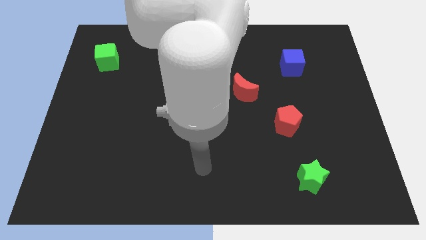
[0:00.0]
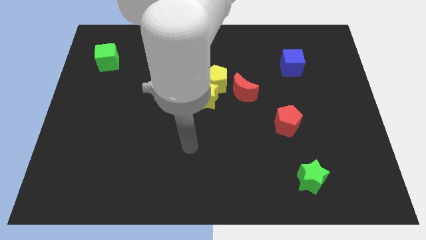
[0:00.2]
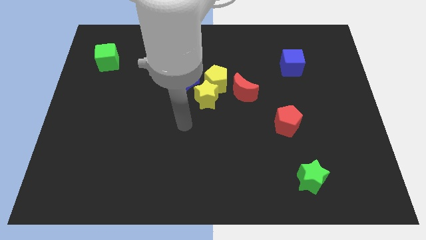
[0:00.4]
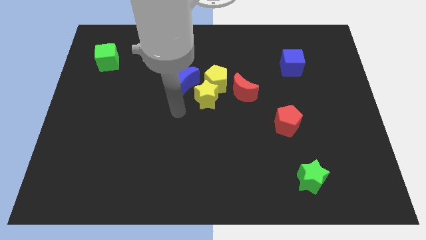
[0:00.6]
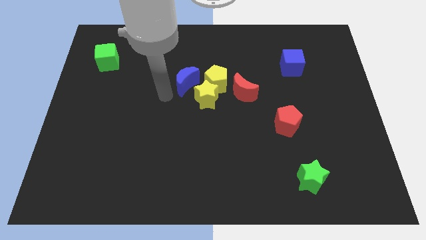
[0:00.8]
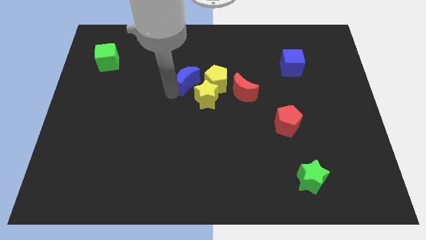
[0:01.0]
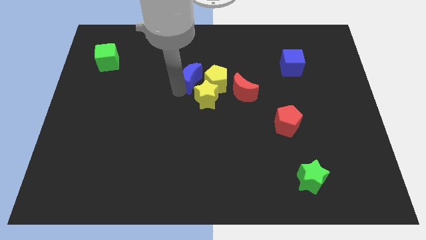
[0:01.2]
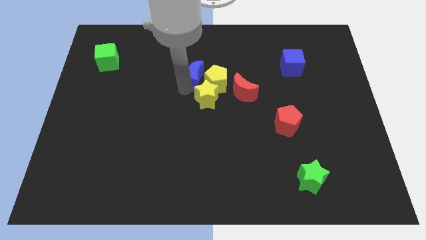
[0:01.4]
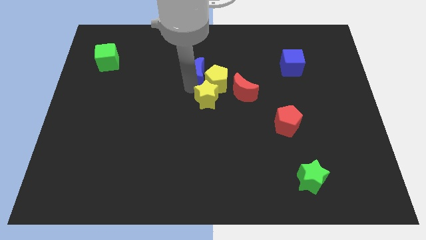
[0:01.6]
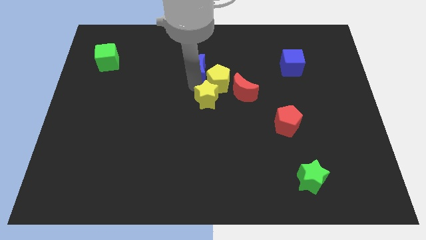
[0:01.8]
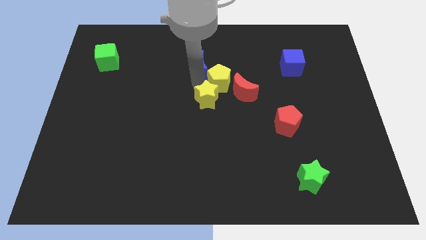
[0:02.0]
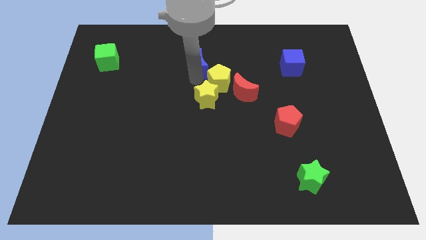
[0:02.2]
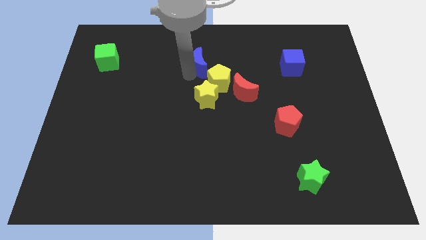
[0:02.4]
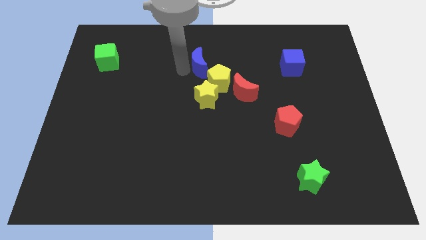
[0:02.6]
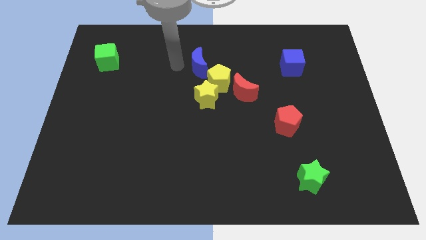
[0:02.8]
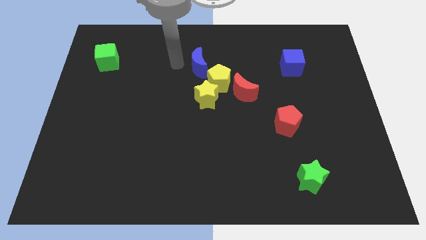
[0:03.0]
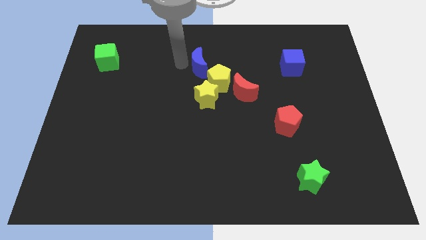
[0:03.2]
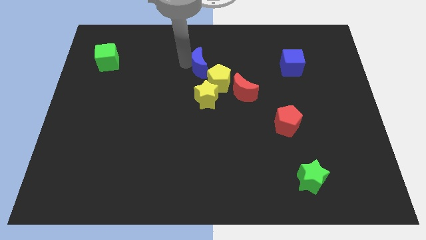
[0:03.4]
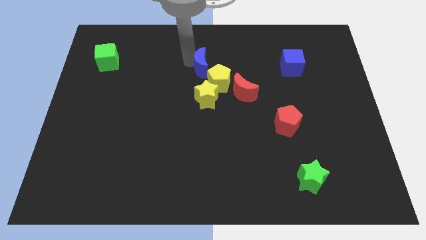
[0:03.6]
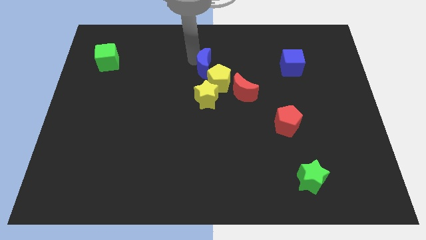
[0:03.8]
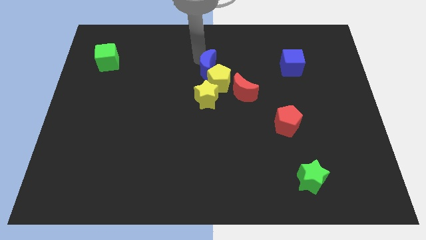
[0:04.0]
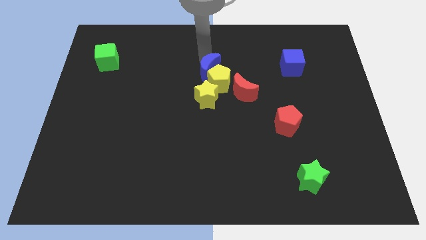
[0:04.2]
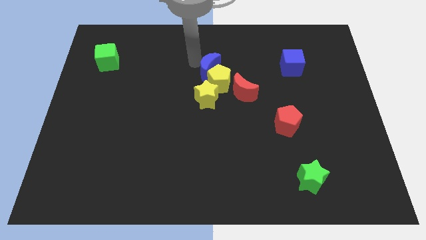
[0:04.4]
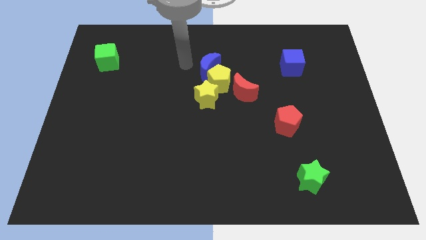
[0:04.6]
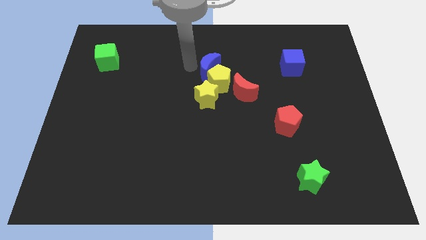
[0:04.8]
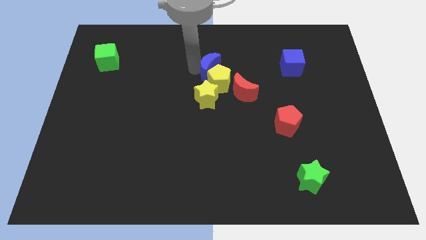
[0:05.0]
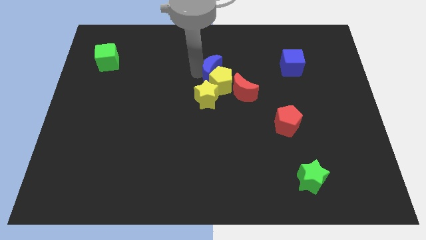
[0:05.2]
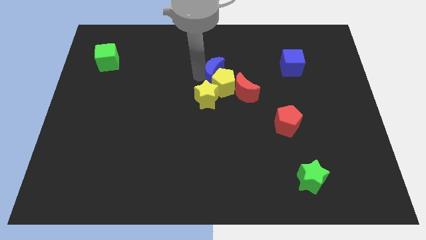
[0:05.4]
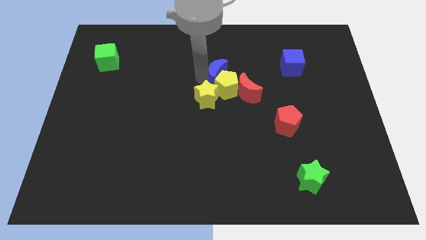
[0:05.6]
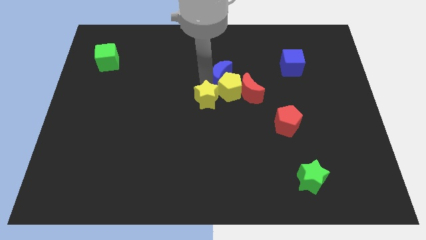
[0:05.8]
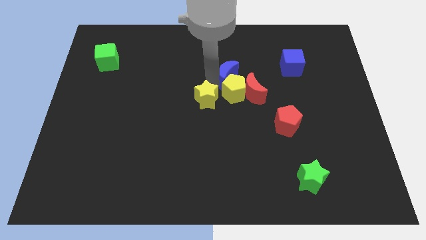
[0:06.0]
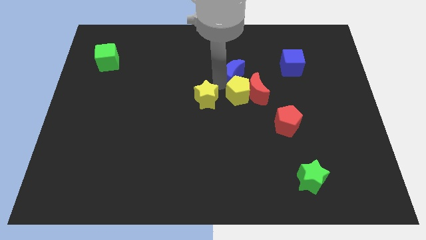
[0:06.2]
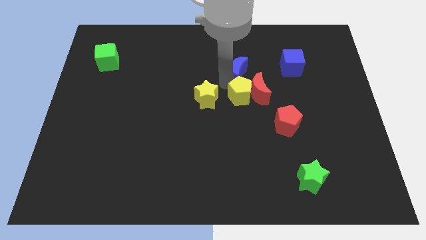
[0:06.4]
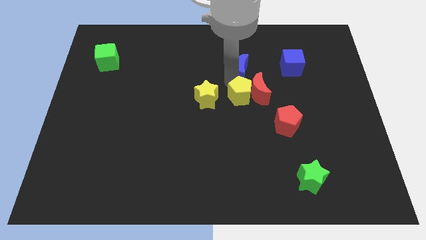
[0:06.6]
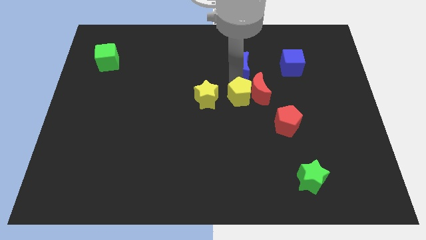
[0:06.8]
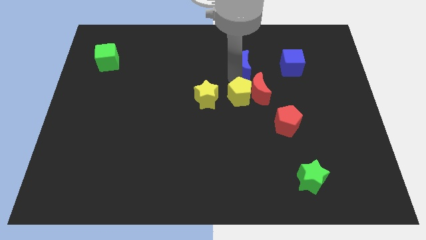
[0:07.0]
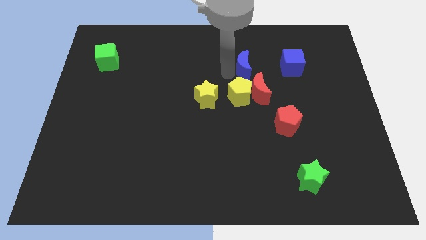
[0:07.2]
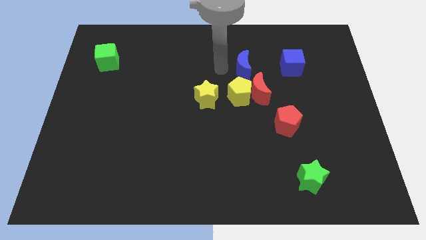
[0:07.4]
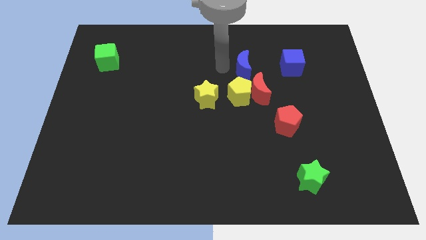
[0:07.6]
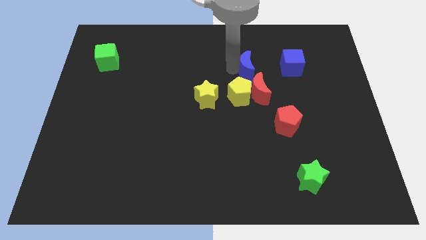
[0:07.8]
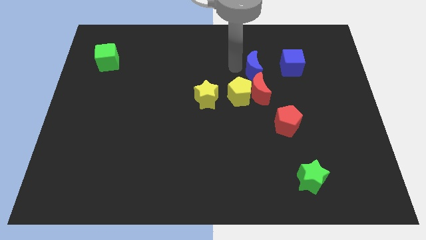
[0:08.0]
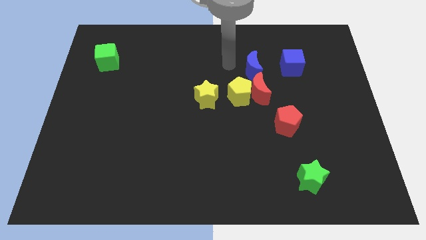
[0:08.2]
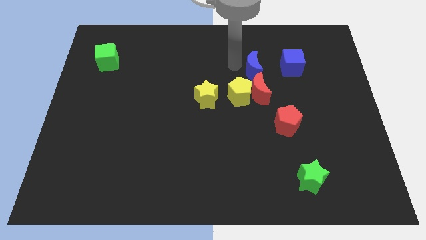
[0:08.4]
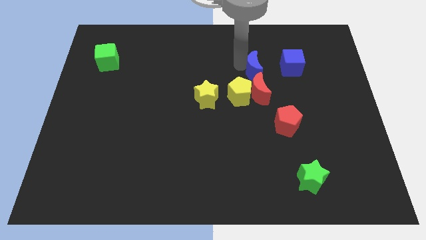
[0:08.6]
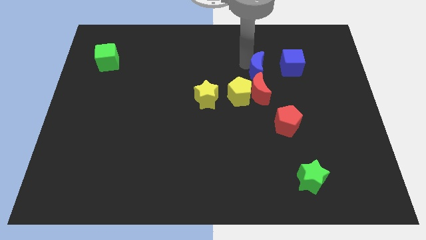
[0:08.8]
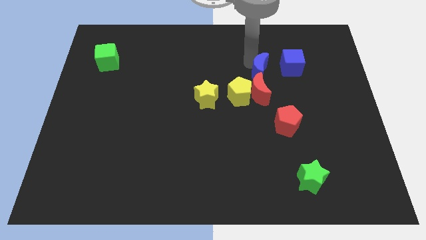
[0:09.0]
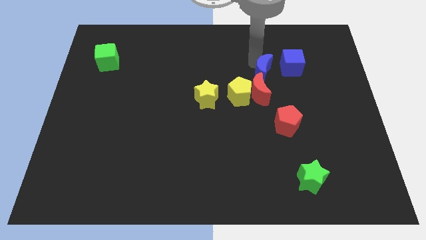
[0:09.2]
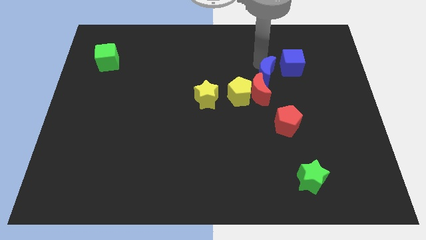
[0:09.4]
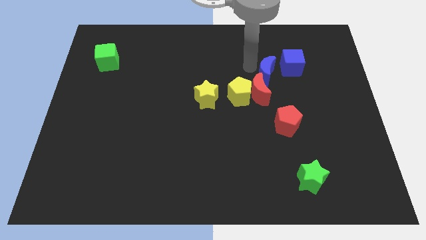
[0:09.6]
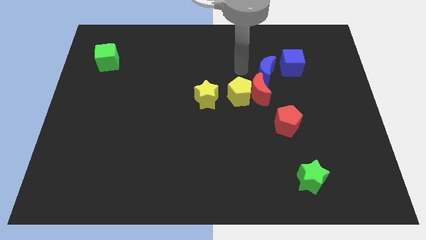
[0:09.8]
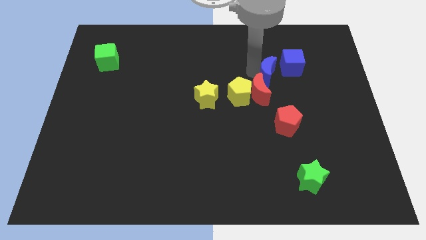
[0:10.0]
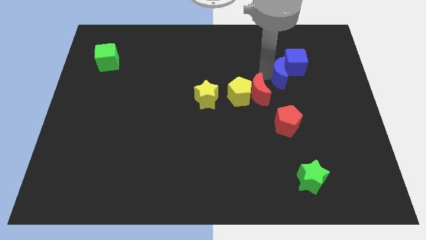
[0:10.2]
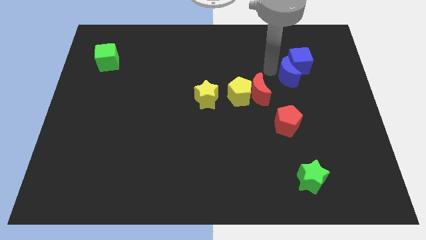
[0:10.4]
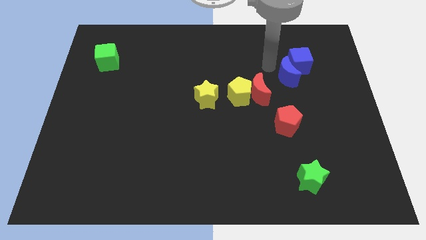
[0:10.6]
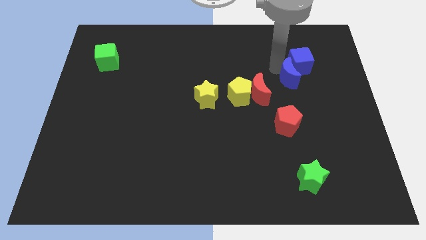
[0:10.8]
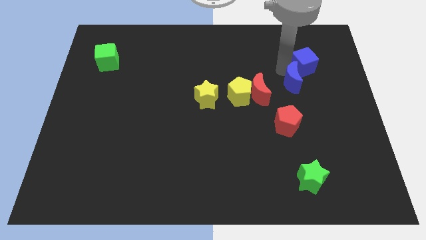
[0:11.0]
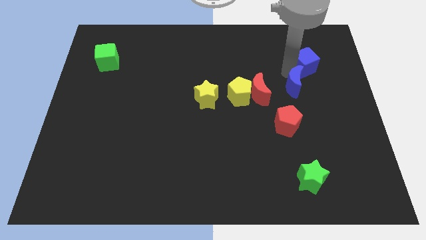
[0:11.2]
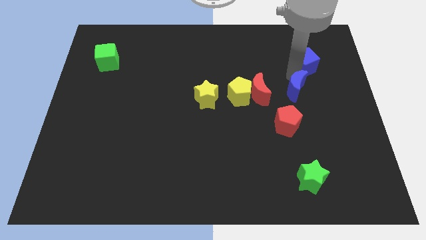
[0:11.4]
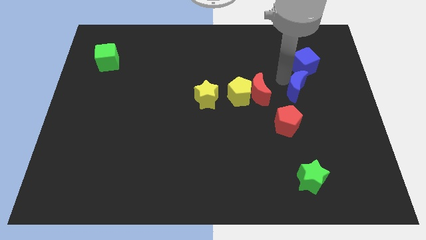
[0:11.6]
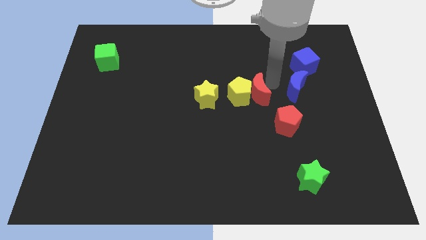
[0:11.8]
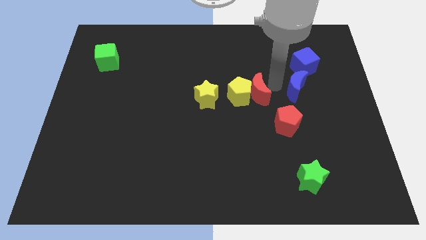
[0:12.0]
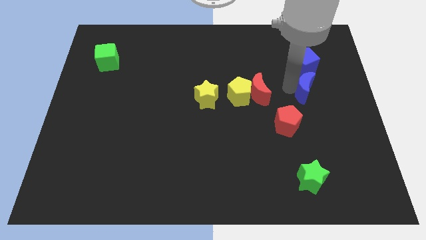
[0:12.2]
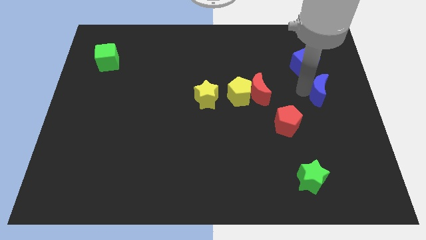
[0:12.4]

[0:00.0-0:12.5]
slide the blue moon to the center right

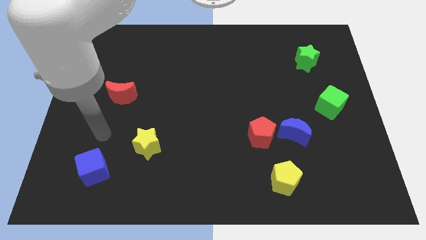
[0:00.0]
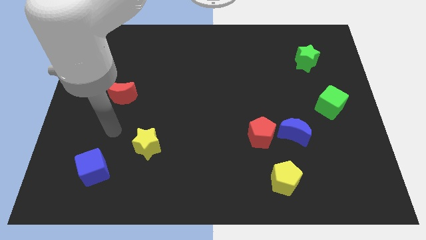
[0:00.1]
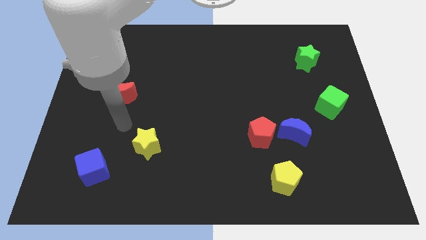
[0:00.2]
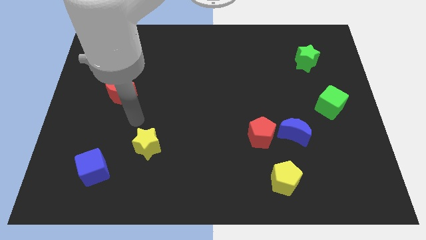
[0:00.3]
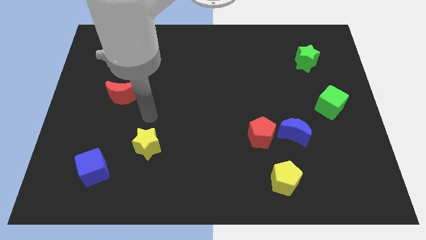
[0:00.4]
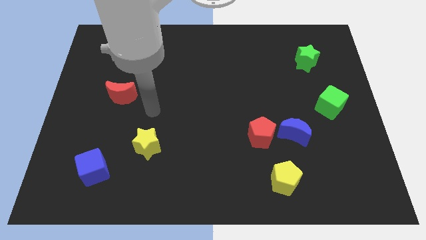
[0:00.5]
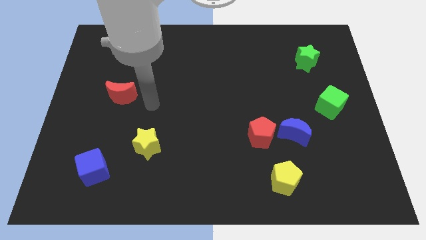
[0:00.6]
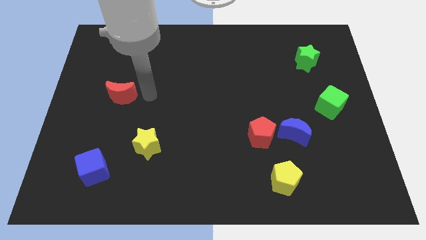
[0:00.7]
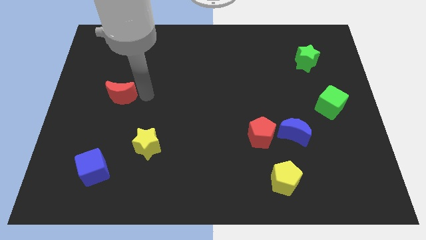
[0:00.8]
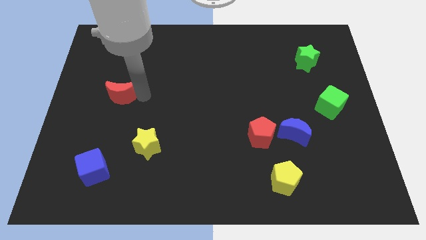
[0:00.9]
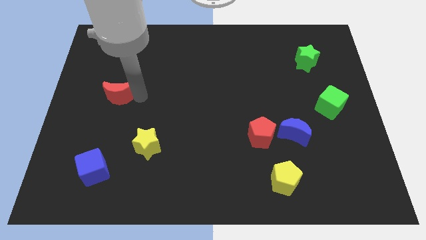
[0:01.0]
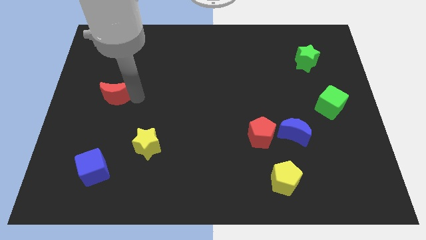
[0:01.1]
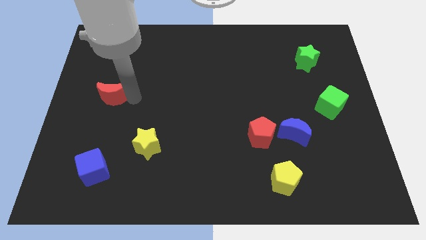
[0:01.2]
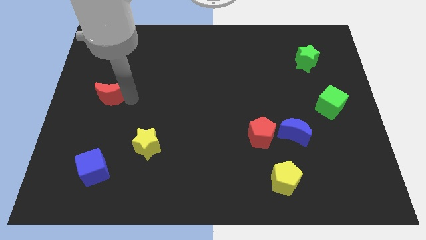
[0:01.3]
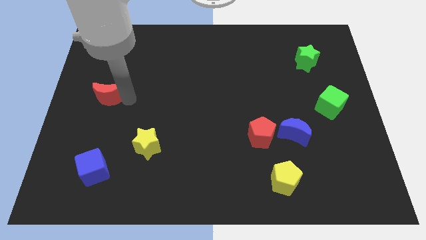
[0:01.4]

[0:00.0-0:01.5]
push the red moon to the left side of the board
